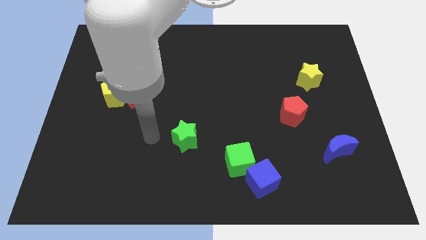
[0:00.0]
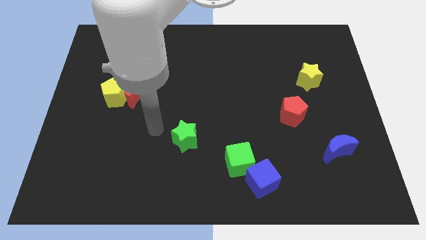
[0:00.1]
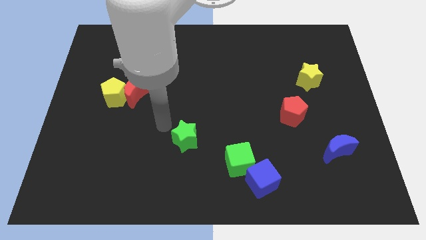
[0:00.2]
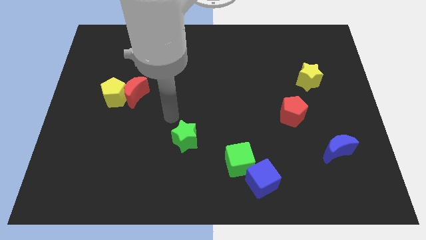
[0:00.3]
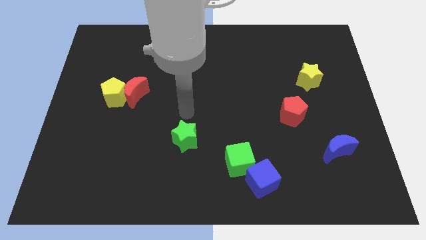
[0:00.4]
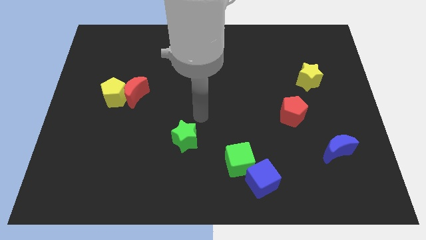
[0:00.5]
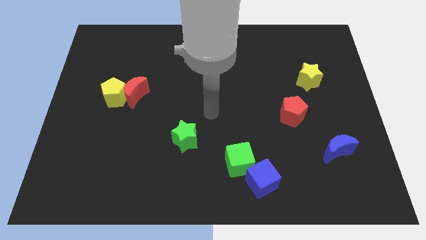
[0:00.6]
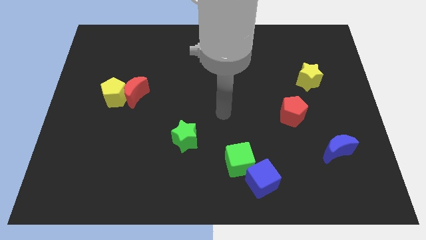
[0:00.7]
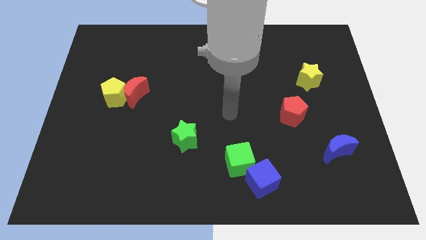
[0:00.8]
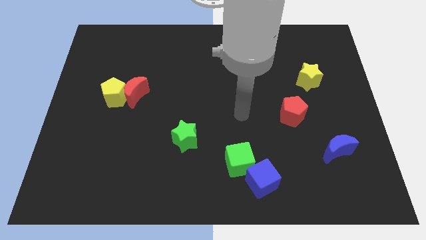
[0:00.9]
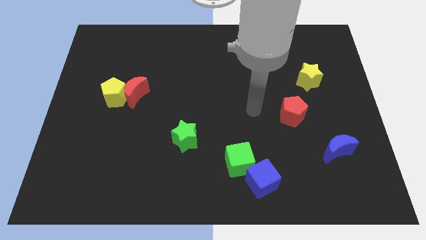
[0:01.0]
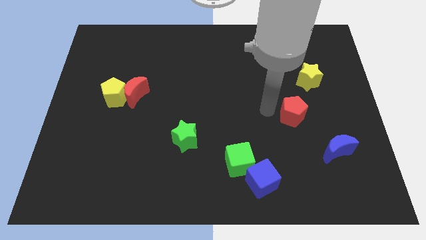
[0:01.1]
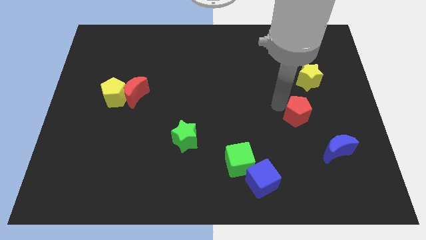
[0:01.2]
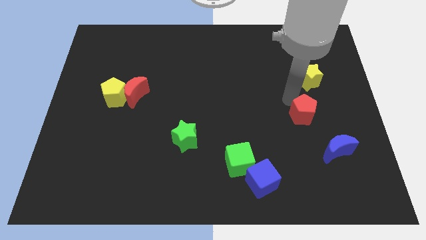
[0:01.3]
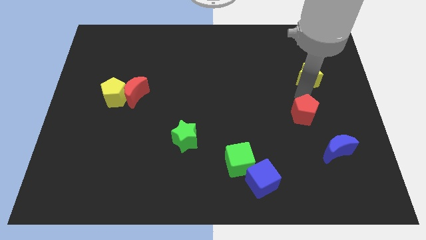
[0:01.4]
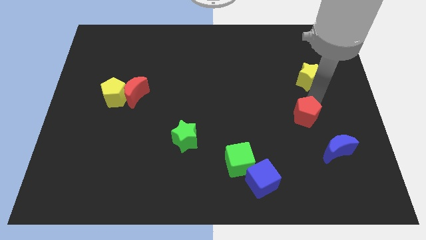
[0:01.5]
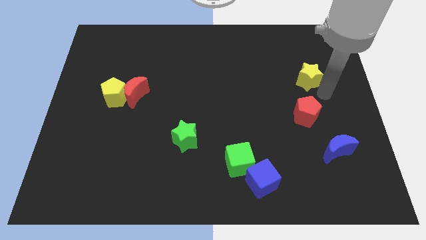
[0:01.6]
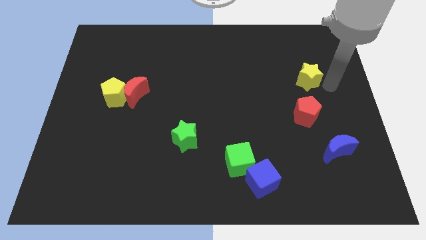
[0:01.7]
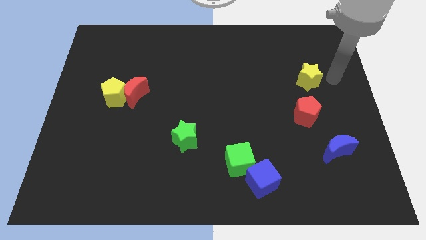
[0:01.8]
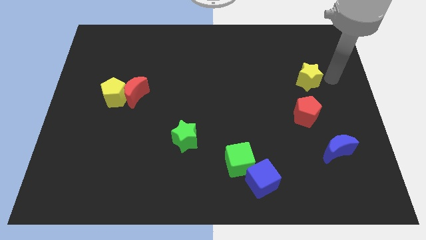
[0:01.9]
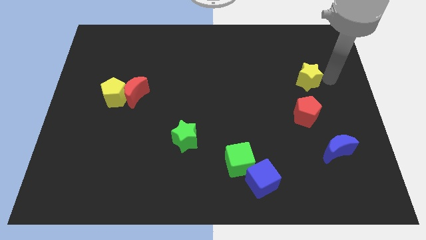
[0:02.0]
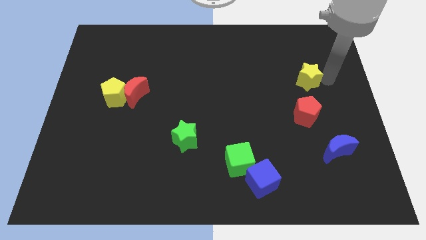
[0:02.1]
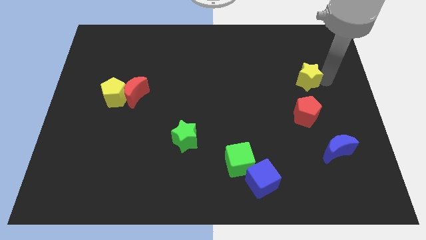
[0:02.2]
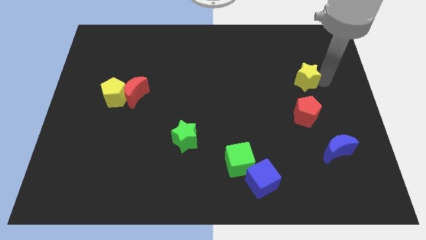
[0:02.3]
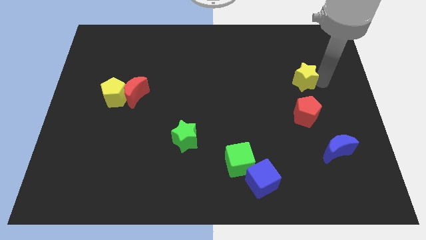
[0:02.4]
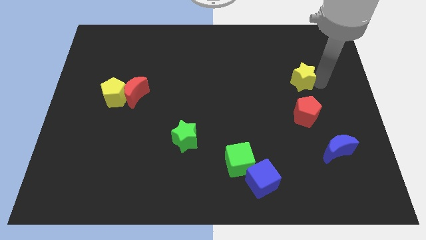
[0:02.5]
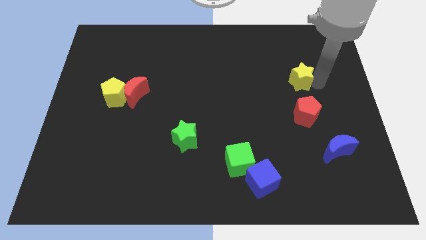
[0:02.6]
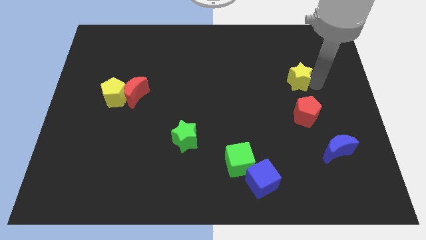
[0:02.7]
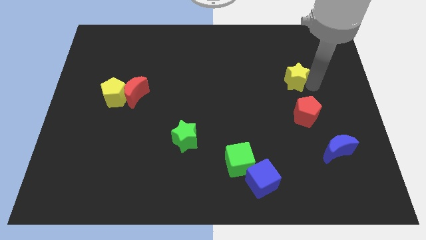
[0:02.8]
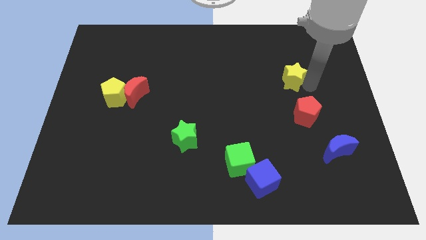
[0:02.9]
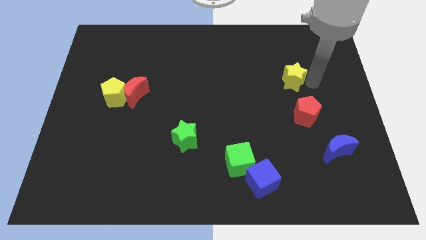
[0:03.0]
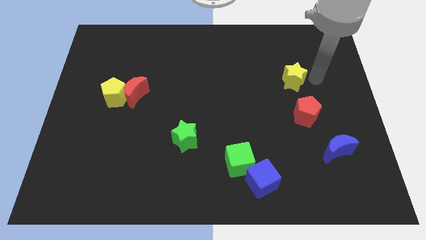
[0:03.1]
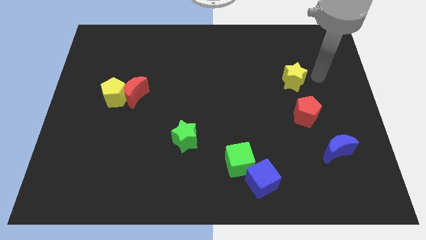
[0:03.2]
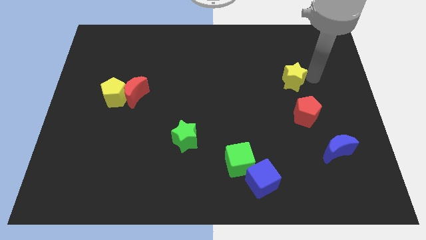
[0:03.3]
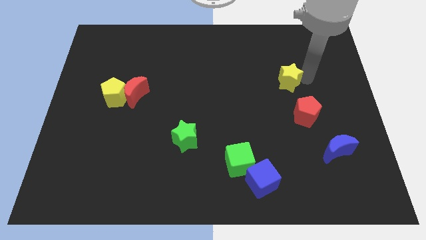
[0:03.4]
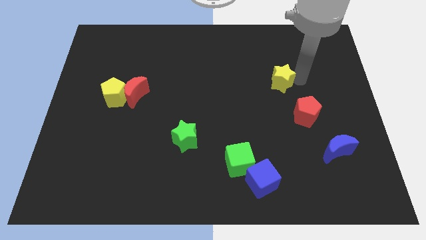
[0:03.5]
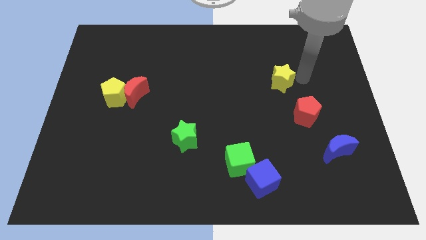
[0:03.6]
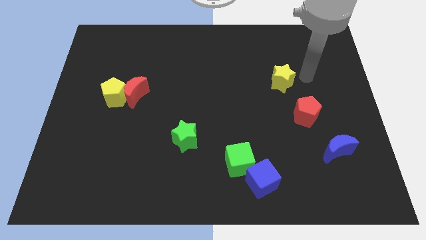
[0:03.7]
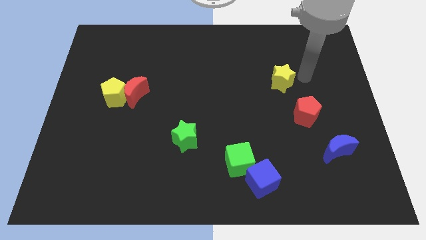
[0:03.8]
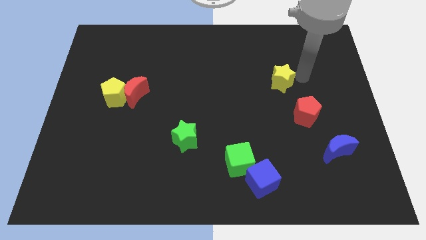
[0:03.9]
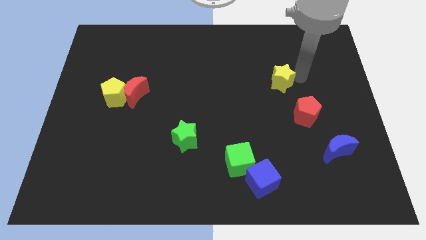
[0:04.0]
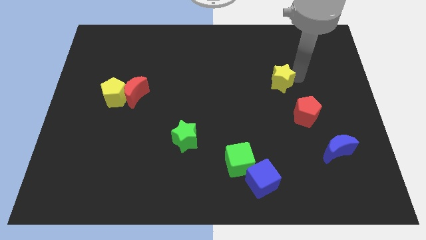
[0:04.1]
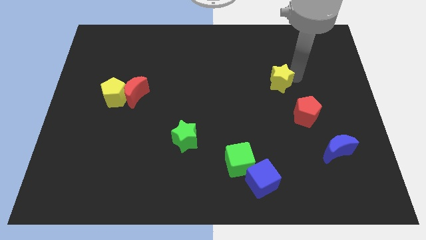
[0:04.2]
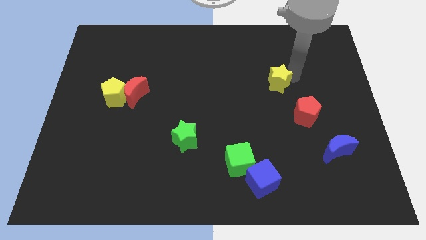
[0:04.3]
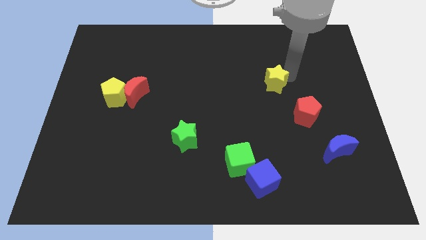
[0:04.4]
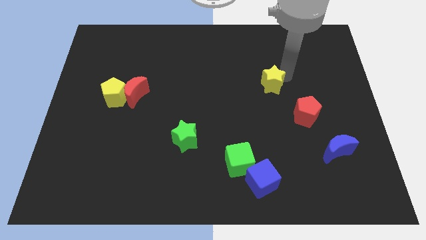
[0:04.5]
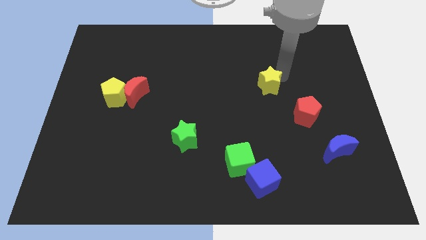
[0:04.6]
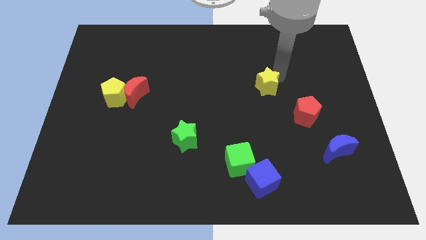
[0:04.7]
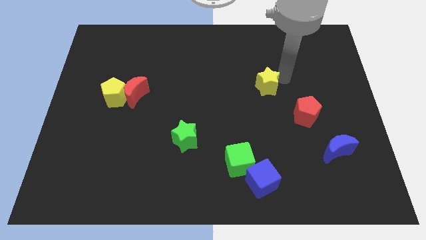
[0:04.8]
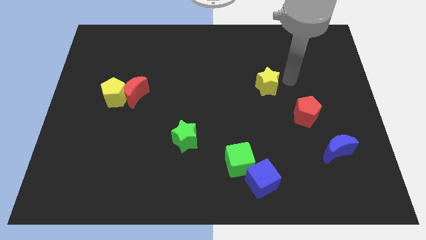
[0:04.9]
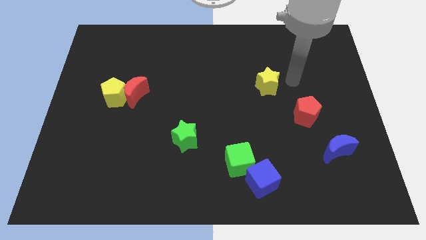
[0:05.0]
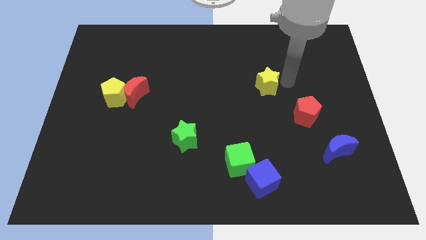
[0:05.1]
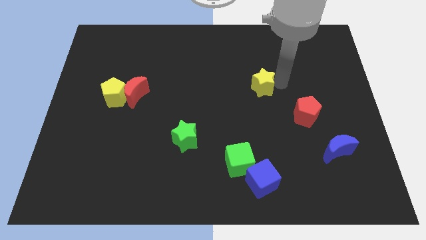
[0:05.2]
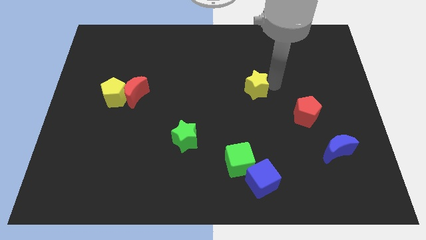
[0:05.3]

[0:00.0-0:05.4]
push the yellow star to the center

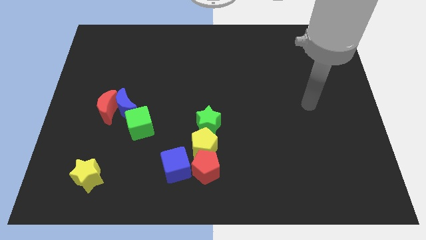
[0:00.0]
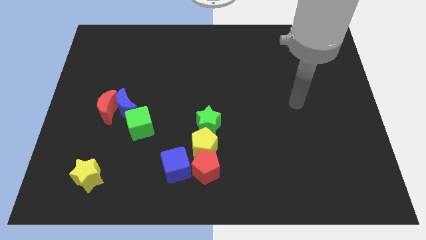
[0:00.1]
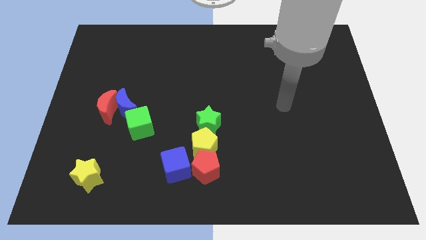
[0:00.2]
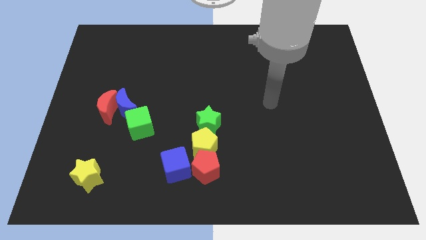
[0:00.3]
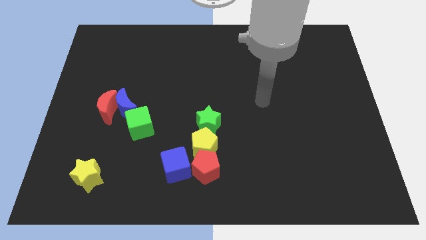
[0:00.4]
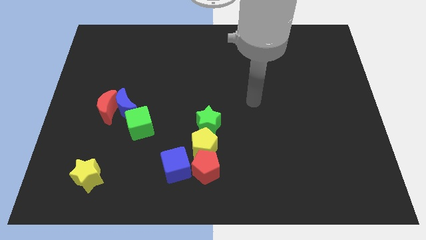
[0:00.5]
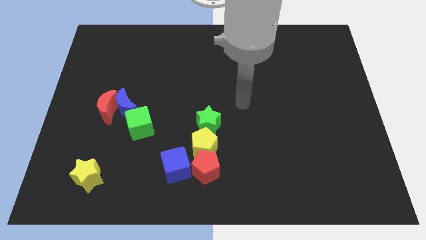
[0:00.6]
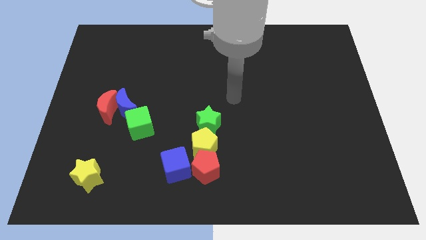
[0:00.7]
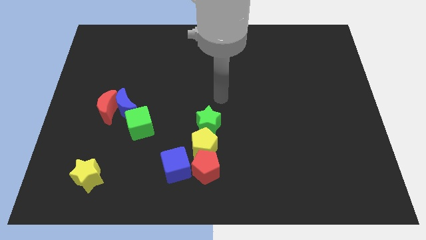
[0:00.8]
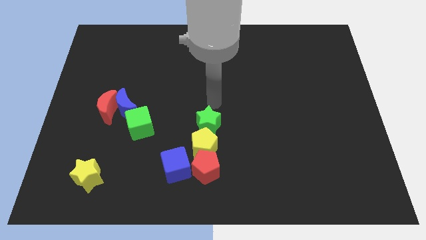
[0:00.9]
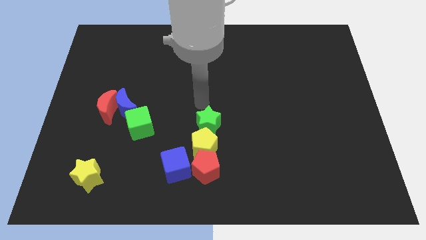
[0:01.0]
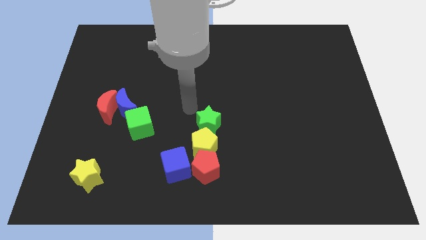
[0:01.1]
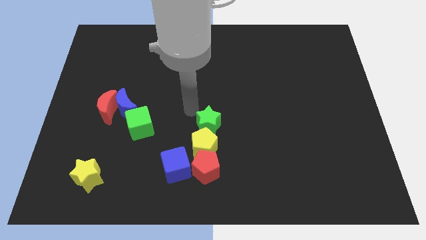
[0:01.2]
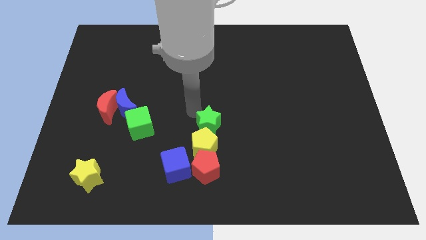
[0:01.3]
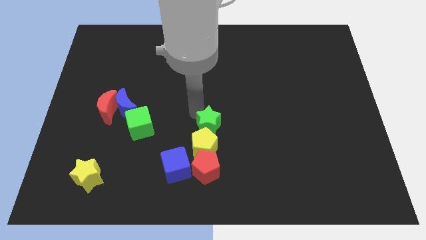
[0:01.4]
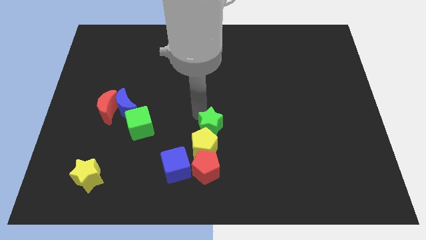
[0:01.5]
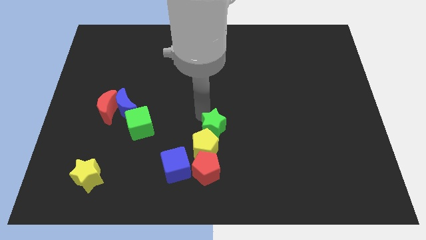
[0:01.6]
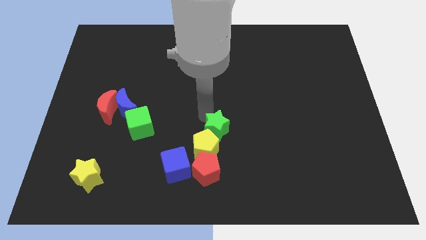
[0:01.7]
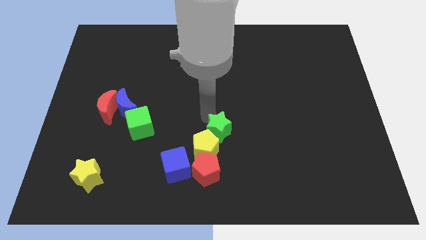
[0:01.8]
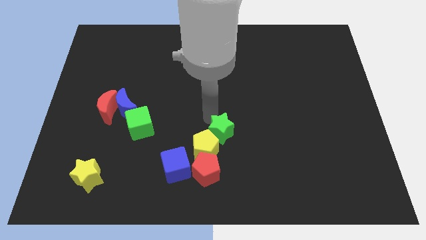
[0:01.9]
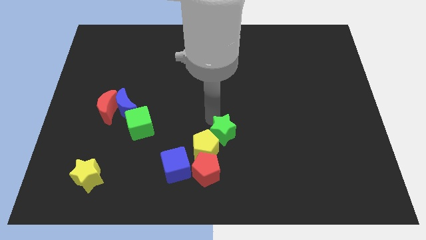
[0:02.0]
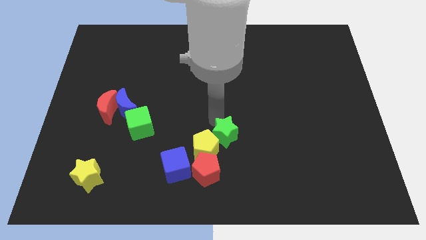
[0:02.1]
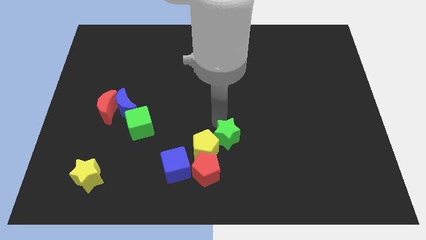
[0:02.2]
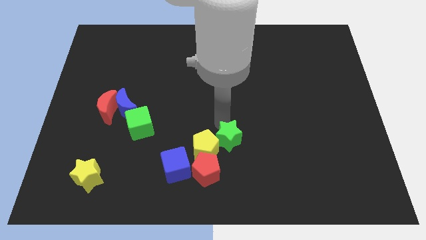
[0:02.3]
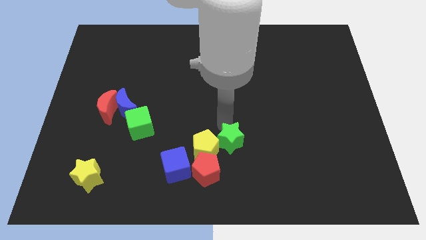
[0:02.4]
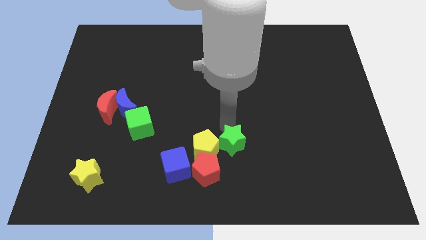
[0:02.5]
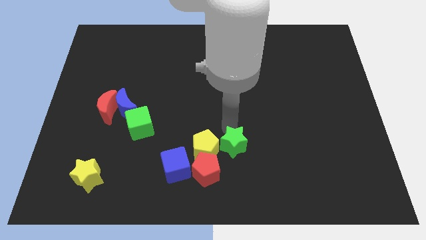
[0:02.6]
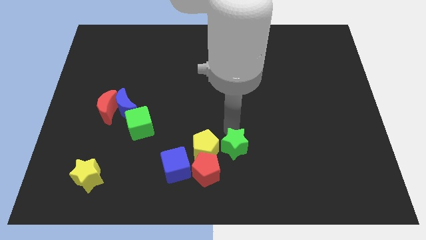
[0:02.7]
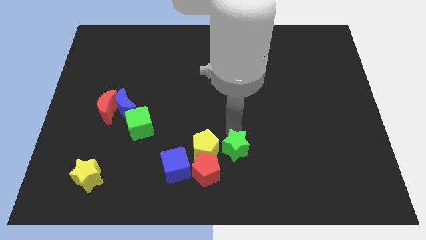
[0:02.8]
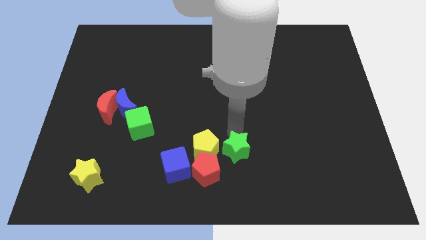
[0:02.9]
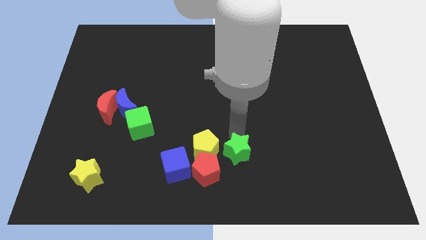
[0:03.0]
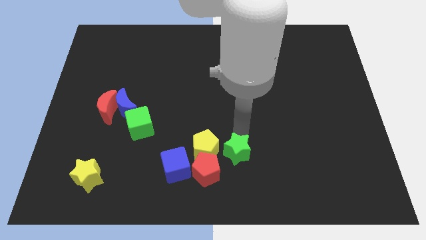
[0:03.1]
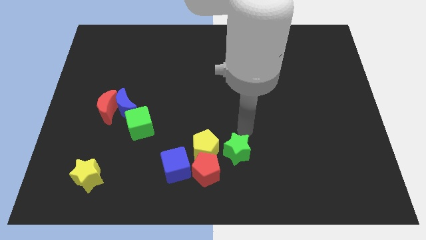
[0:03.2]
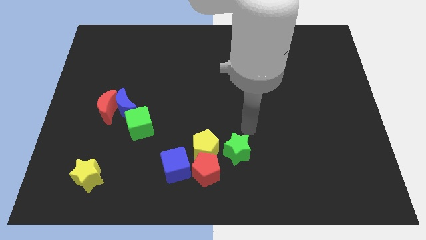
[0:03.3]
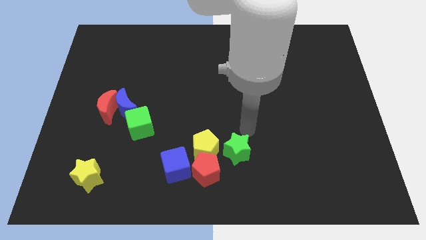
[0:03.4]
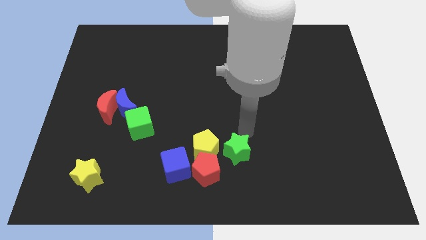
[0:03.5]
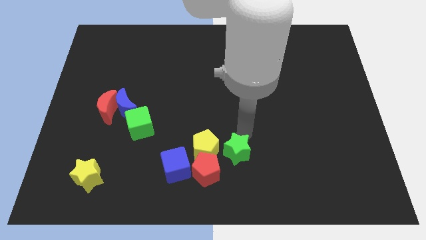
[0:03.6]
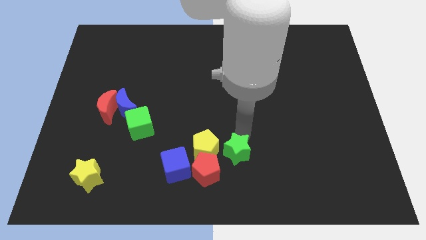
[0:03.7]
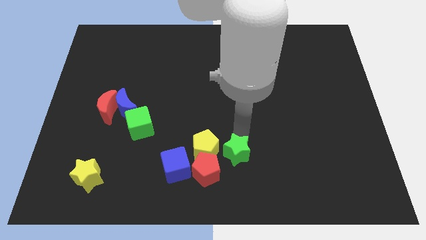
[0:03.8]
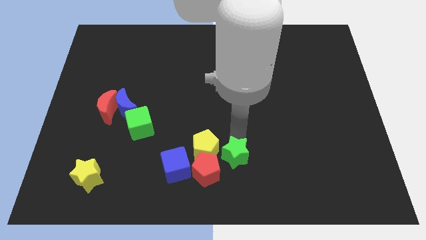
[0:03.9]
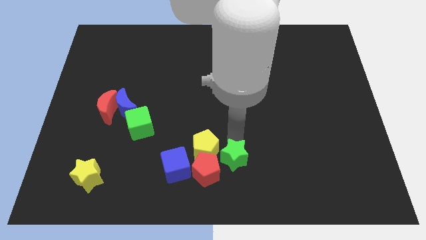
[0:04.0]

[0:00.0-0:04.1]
slide the green star to the bottom
